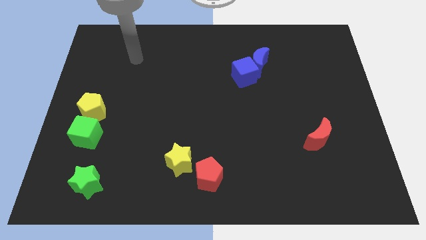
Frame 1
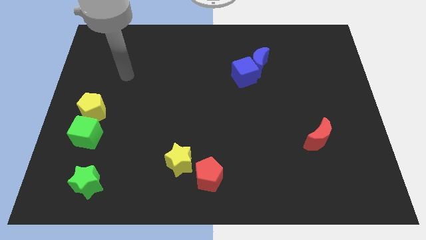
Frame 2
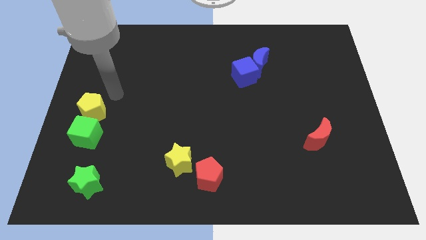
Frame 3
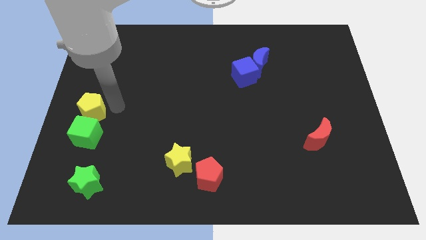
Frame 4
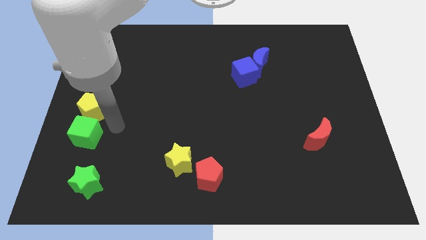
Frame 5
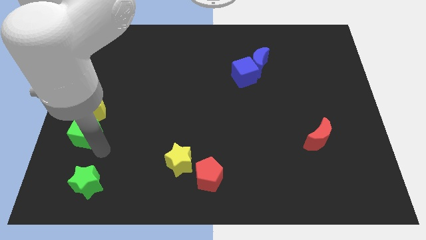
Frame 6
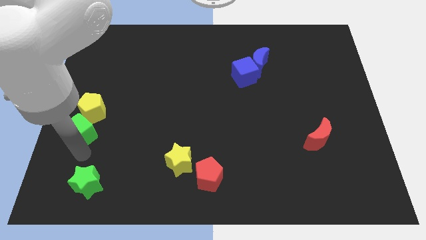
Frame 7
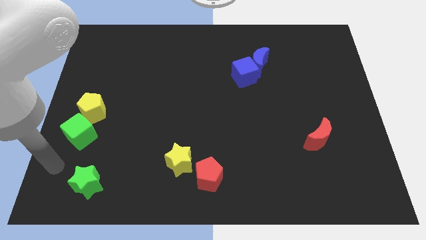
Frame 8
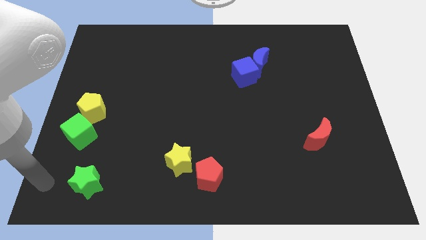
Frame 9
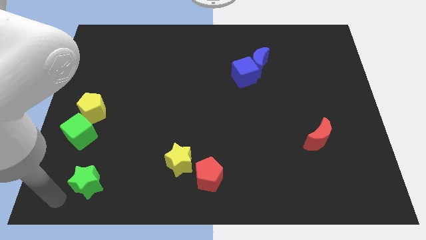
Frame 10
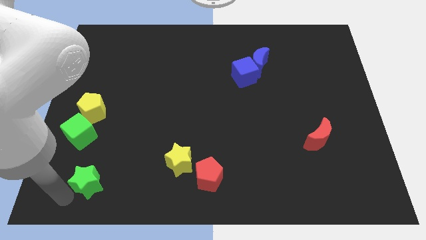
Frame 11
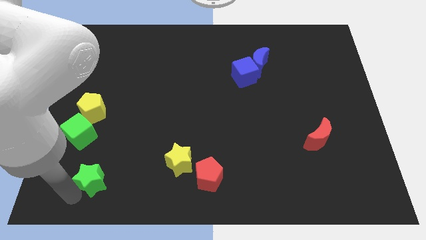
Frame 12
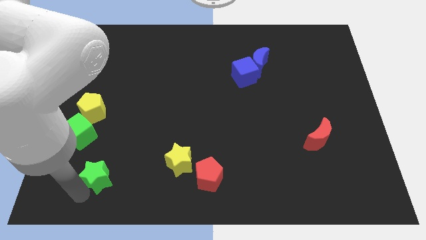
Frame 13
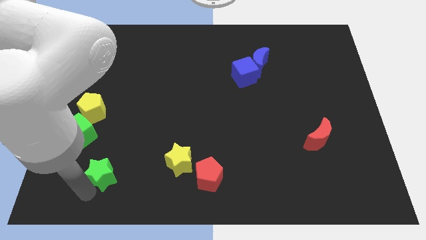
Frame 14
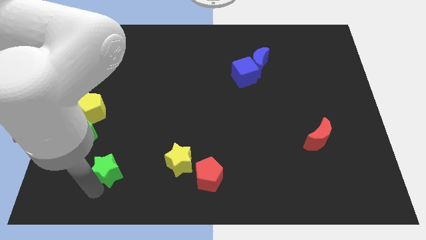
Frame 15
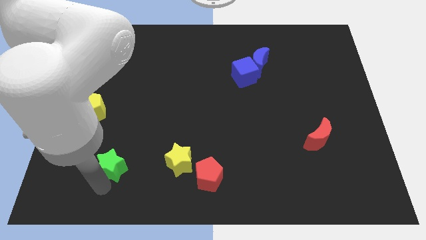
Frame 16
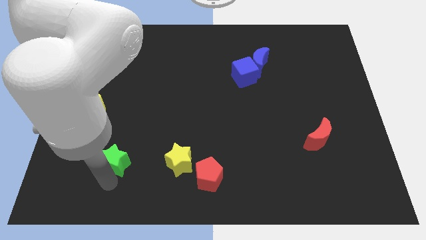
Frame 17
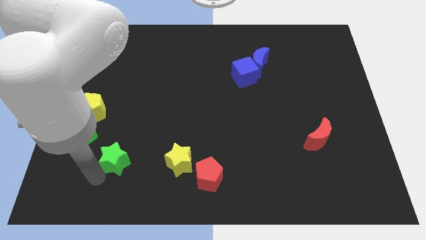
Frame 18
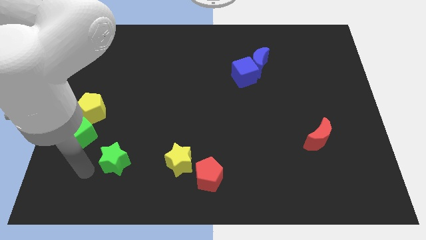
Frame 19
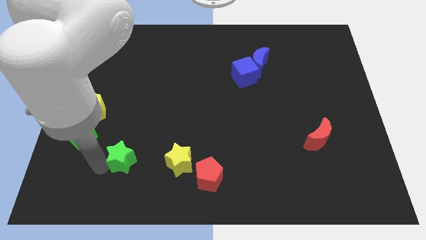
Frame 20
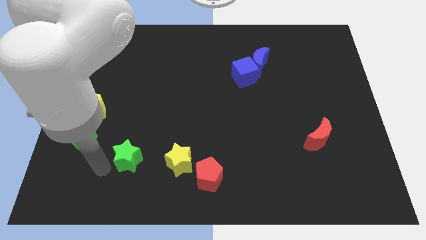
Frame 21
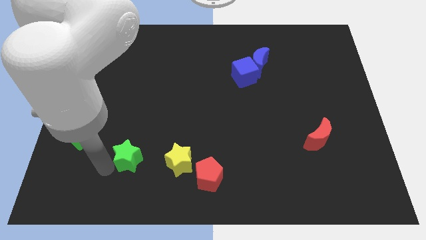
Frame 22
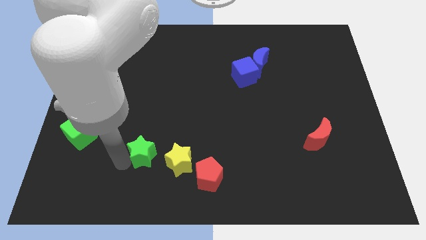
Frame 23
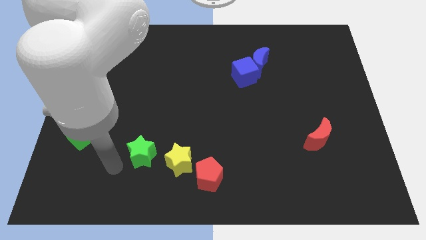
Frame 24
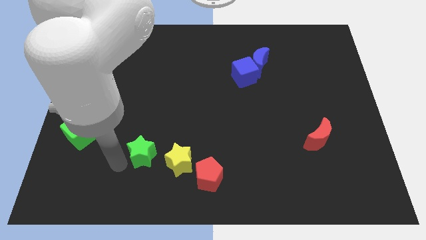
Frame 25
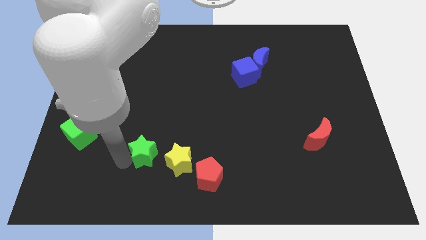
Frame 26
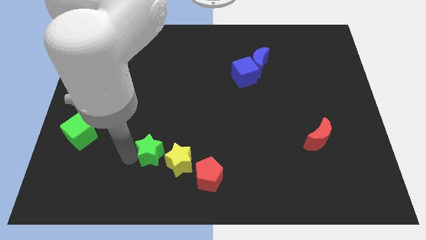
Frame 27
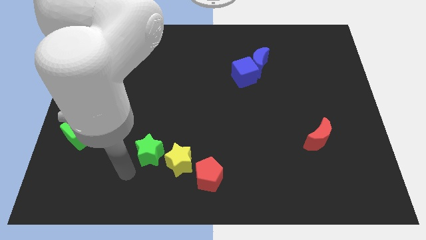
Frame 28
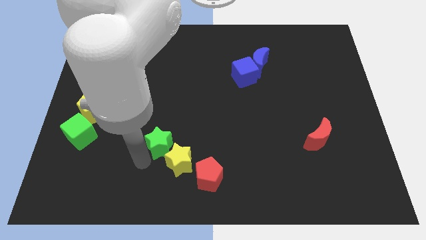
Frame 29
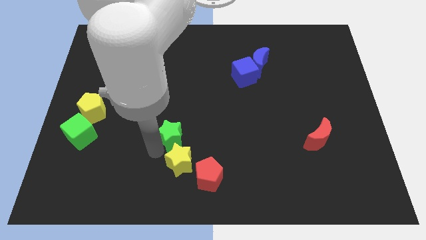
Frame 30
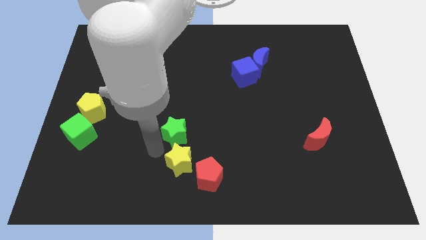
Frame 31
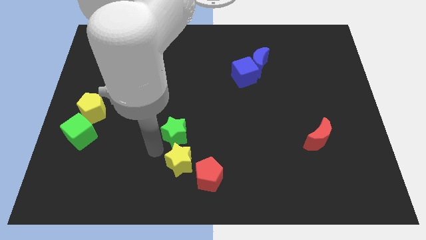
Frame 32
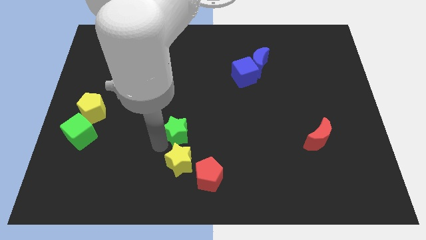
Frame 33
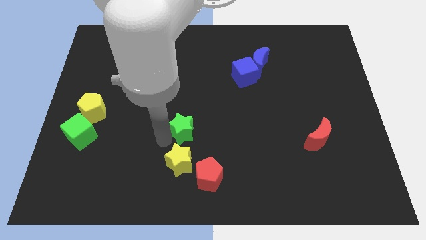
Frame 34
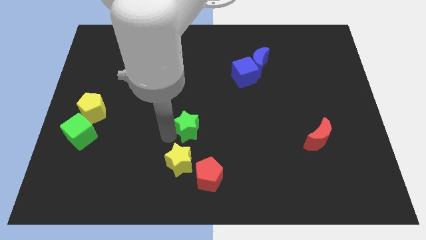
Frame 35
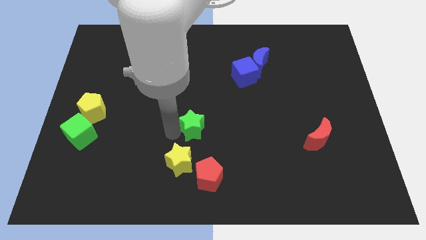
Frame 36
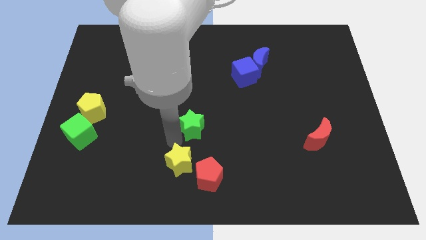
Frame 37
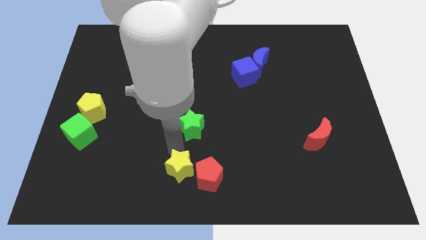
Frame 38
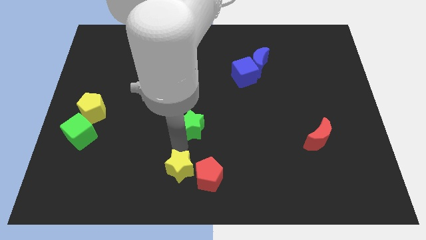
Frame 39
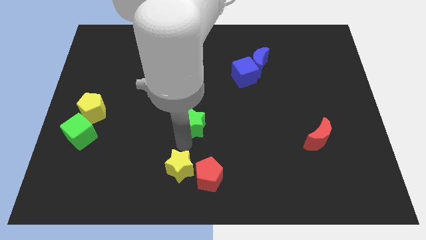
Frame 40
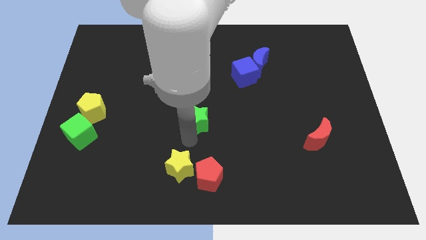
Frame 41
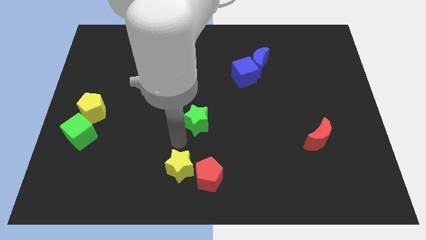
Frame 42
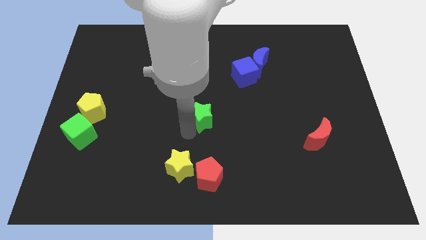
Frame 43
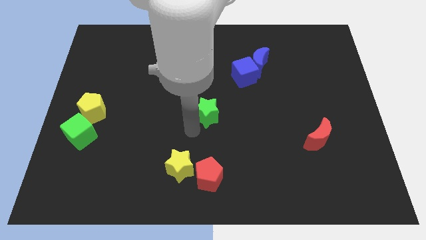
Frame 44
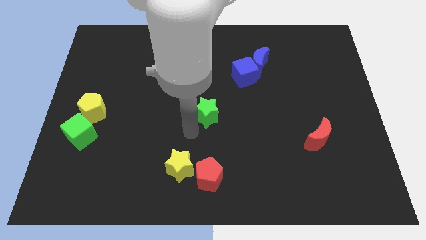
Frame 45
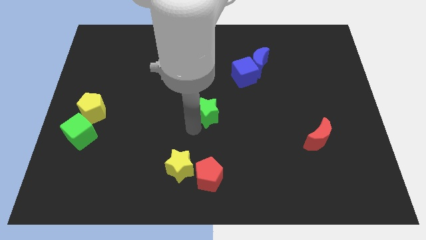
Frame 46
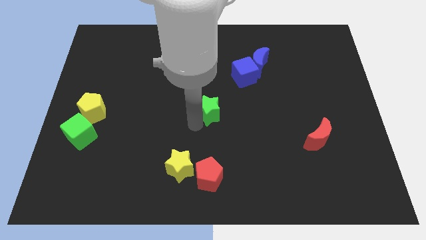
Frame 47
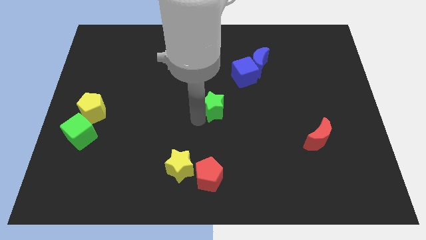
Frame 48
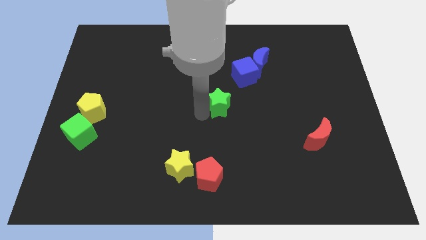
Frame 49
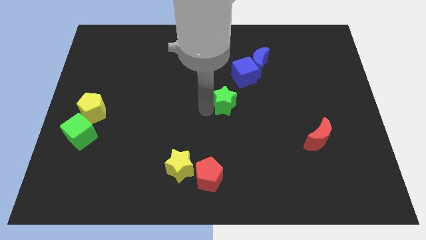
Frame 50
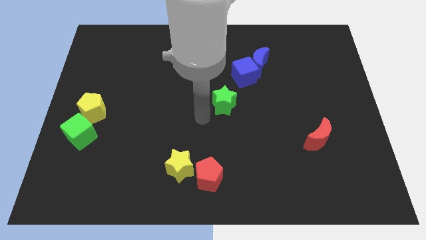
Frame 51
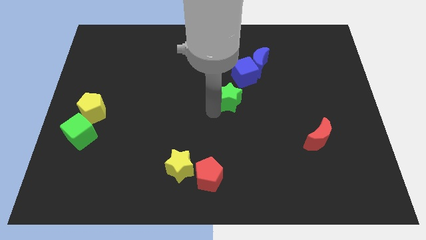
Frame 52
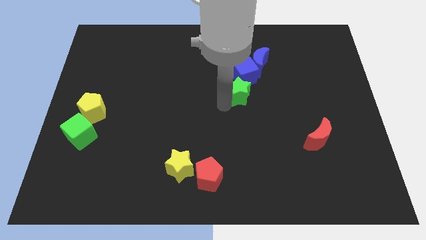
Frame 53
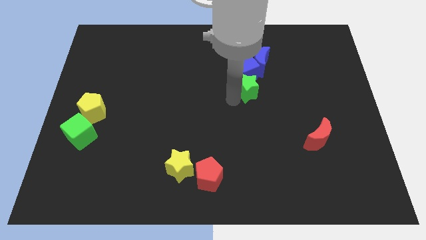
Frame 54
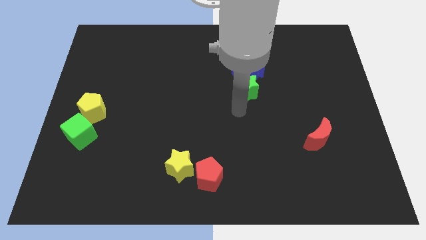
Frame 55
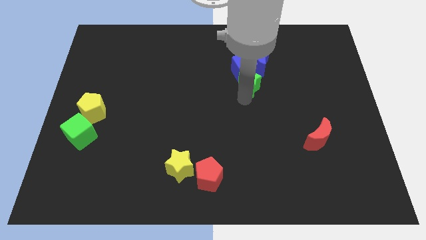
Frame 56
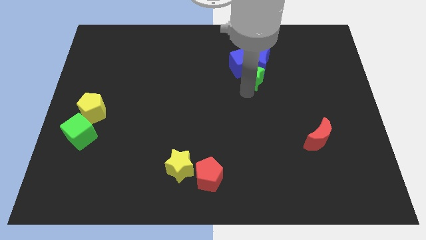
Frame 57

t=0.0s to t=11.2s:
move the green star next to the blue moon

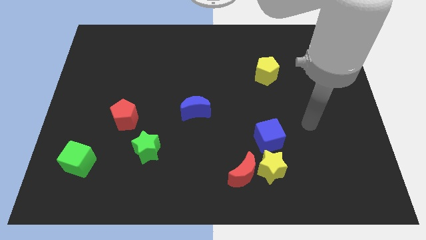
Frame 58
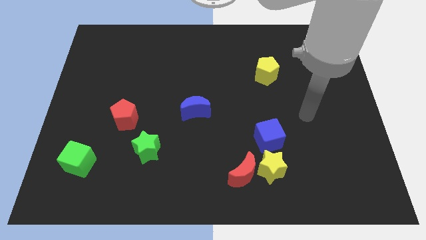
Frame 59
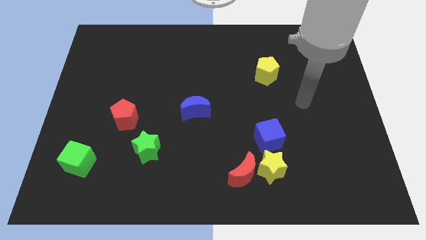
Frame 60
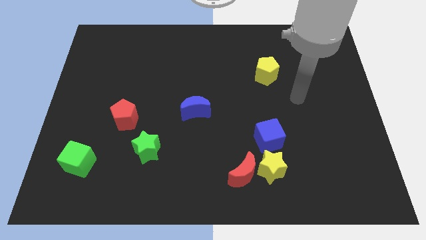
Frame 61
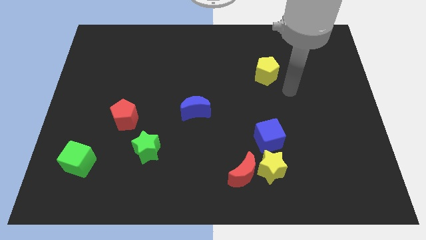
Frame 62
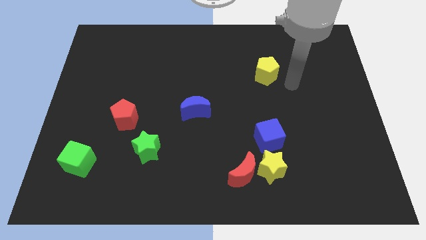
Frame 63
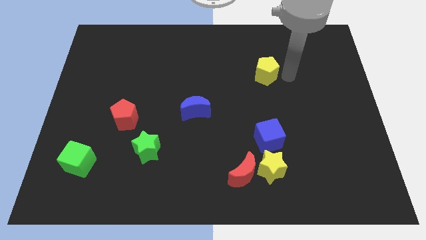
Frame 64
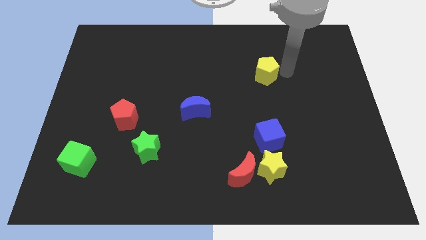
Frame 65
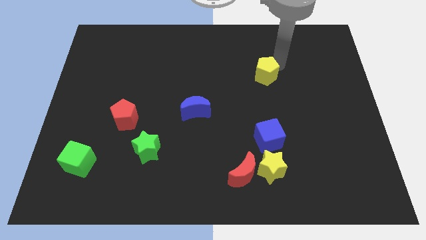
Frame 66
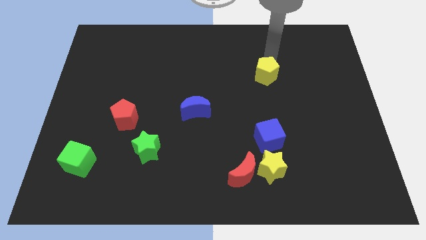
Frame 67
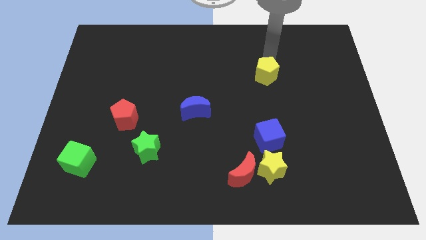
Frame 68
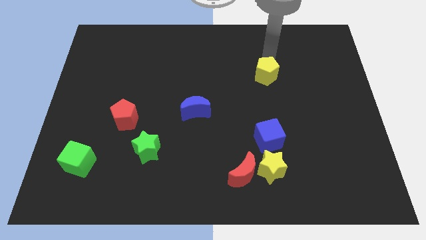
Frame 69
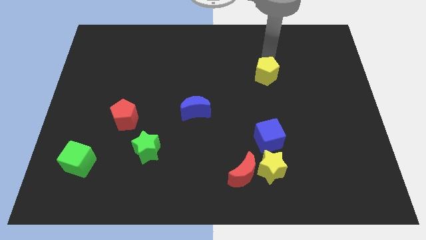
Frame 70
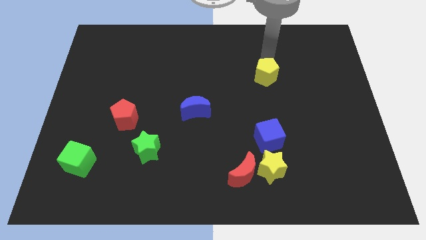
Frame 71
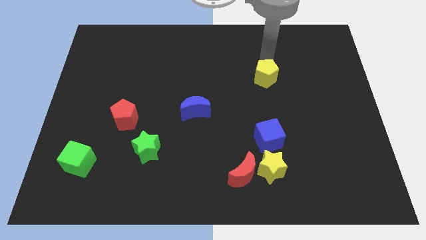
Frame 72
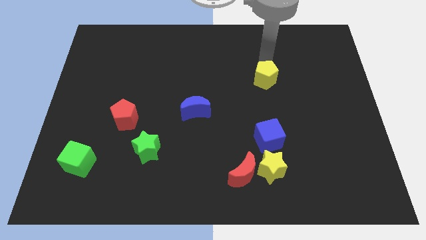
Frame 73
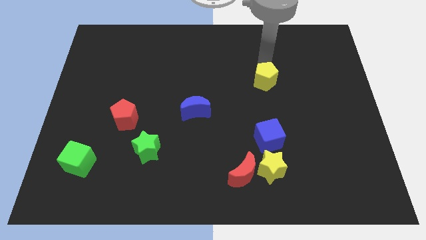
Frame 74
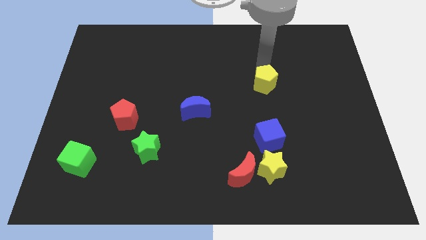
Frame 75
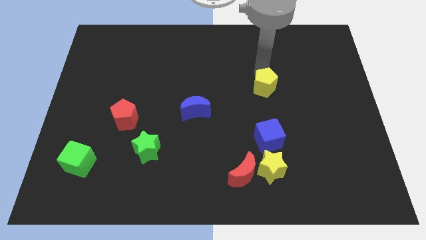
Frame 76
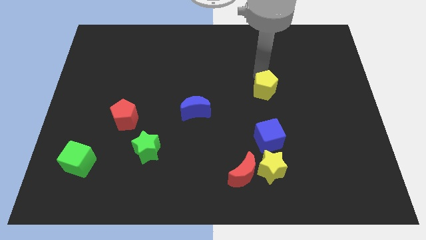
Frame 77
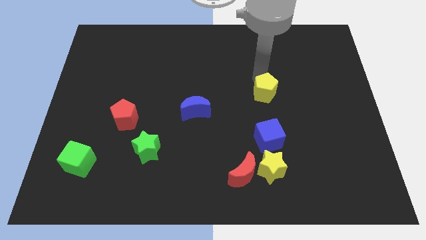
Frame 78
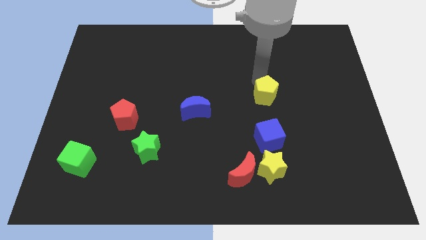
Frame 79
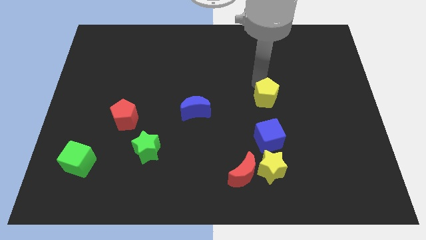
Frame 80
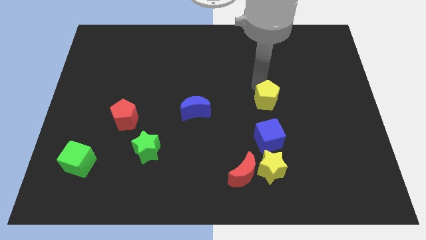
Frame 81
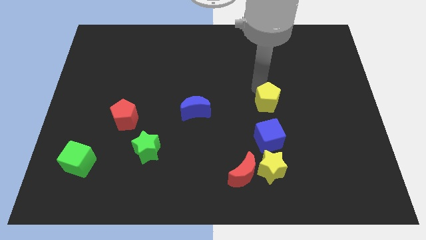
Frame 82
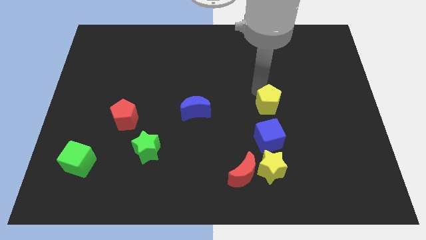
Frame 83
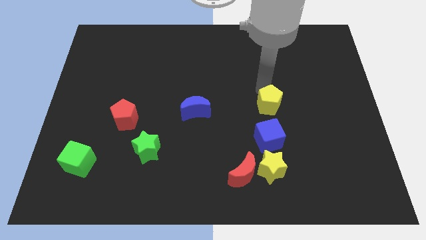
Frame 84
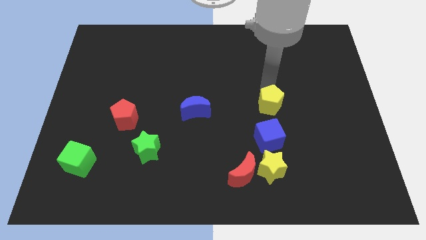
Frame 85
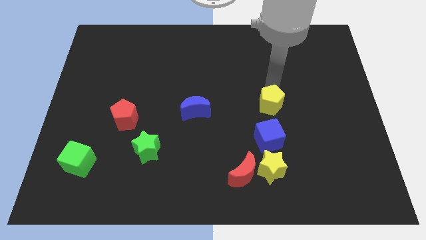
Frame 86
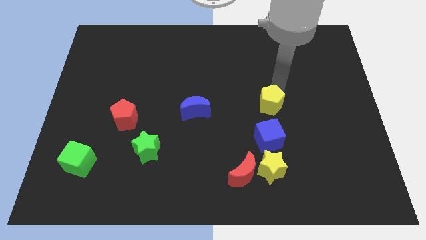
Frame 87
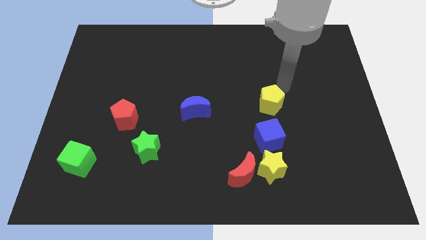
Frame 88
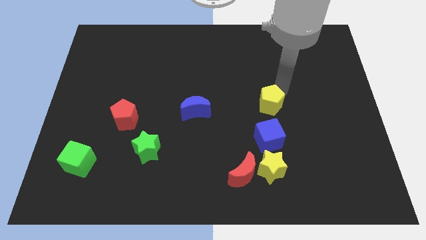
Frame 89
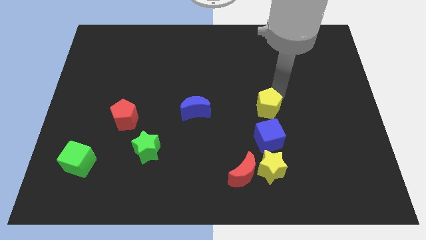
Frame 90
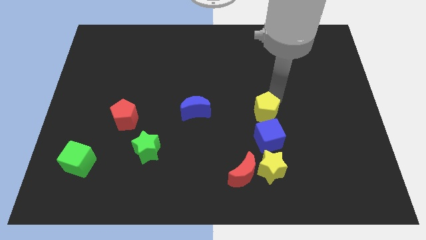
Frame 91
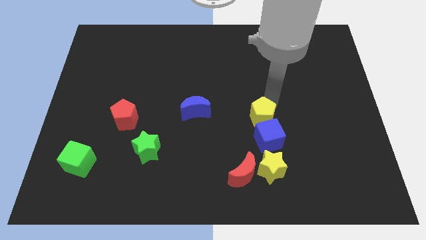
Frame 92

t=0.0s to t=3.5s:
put the yellow pentagon to the blue cube
